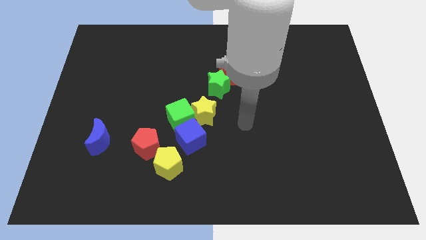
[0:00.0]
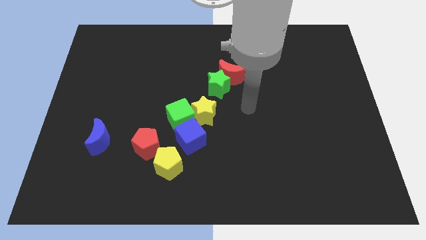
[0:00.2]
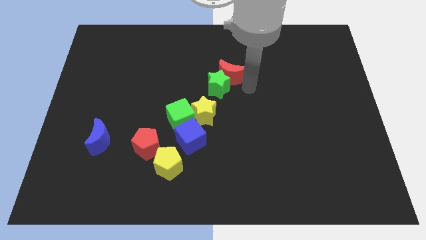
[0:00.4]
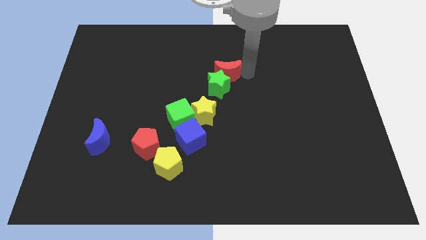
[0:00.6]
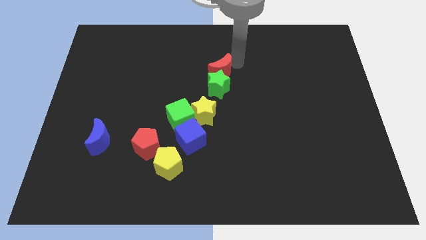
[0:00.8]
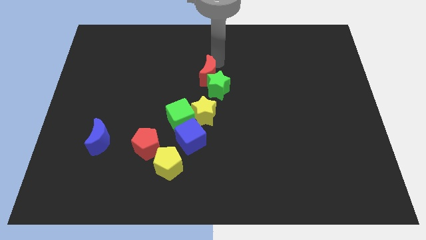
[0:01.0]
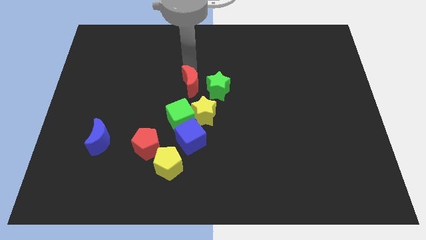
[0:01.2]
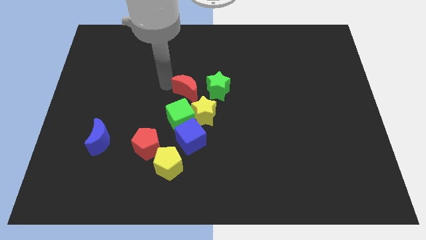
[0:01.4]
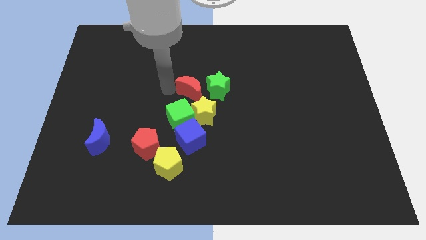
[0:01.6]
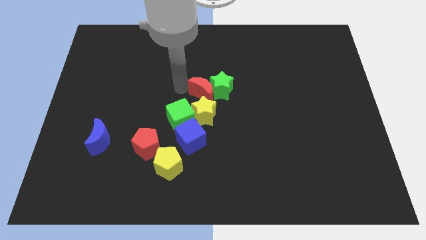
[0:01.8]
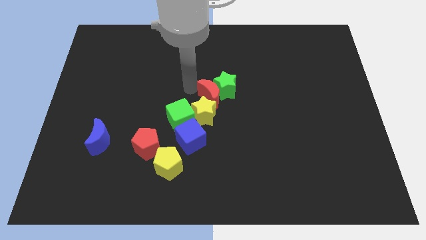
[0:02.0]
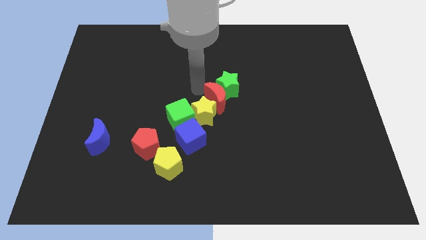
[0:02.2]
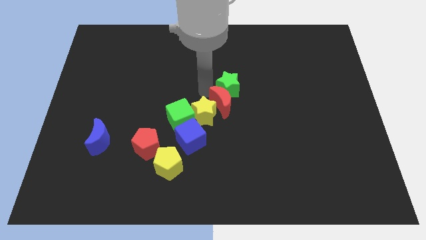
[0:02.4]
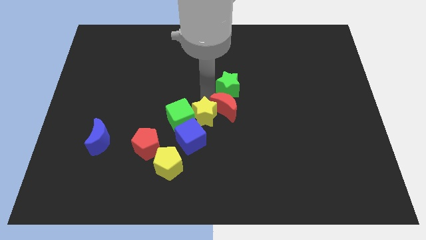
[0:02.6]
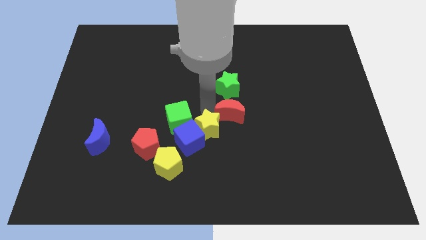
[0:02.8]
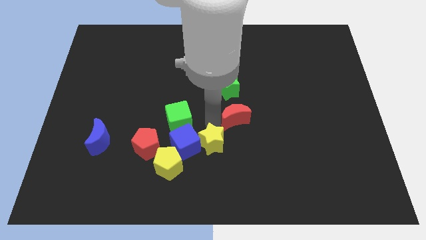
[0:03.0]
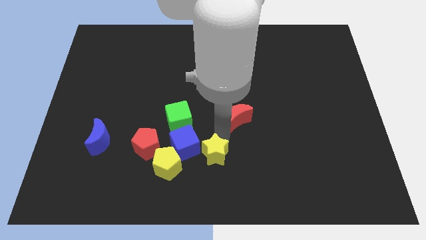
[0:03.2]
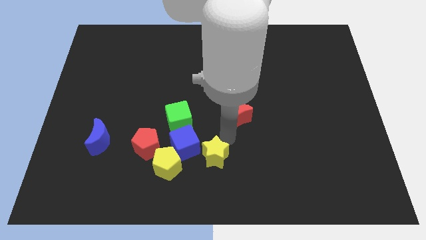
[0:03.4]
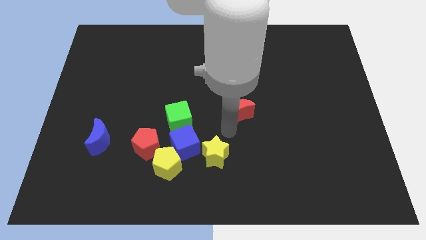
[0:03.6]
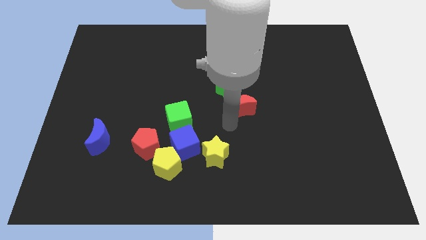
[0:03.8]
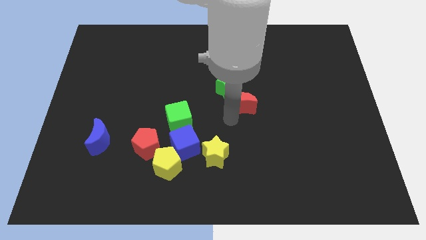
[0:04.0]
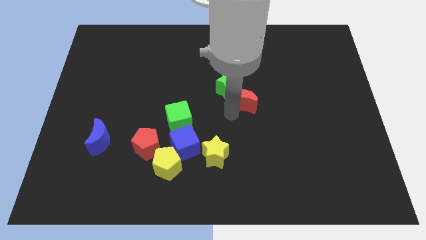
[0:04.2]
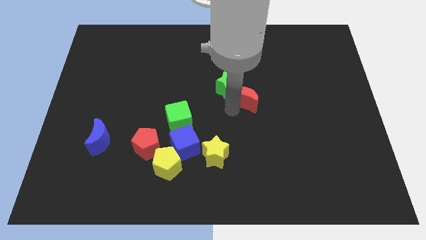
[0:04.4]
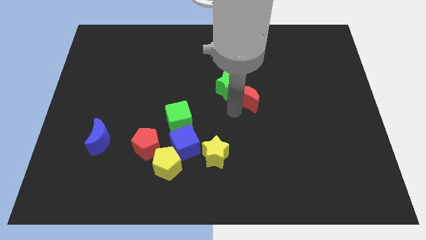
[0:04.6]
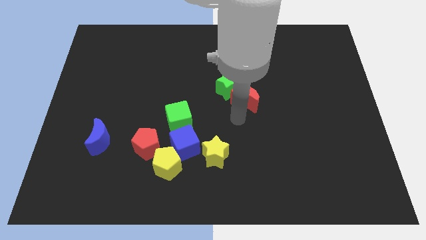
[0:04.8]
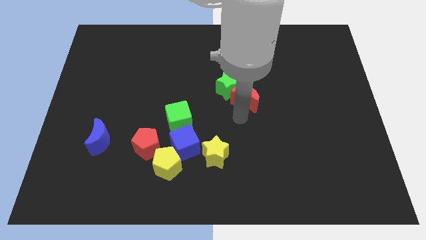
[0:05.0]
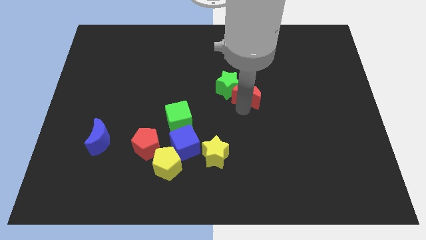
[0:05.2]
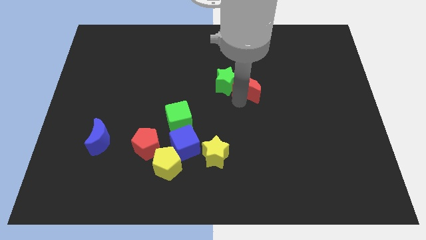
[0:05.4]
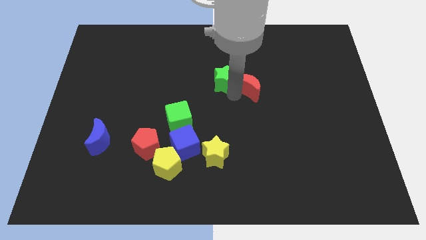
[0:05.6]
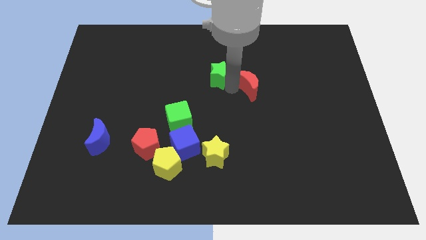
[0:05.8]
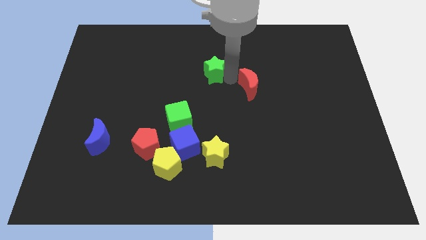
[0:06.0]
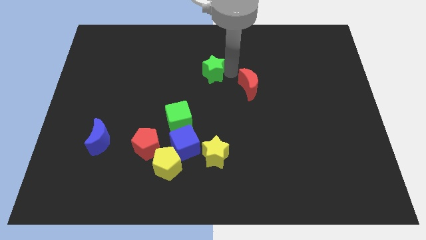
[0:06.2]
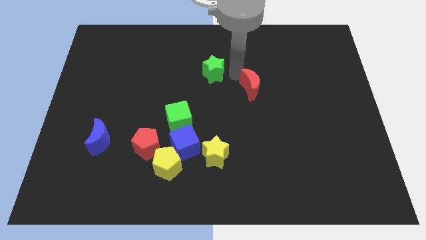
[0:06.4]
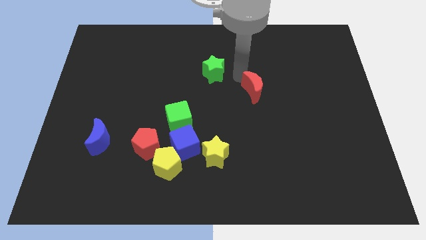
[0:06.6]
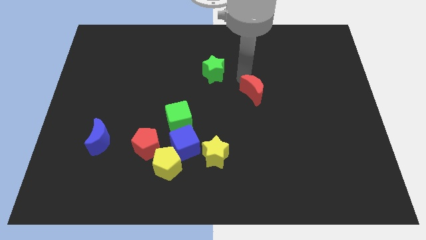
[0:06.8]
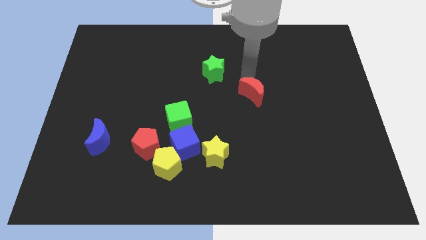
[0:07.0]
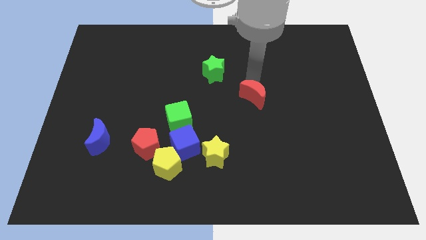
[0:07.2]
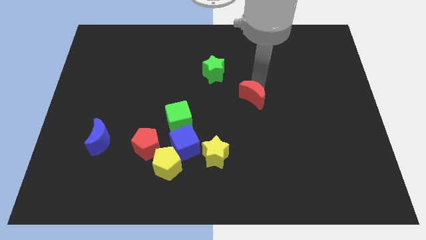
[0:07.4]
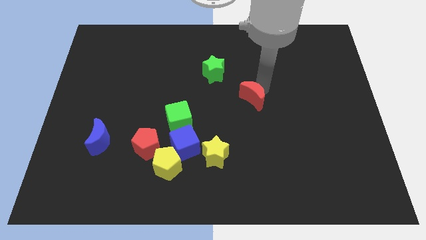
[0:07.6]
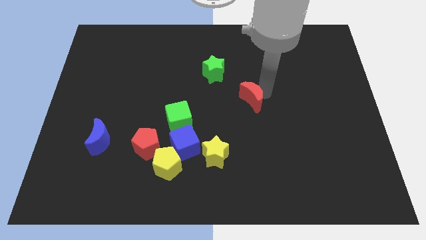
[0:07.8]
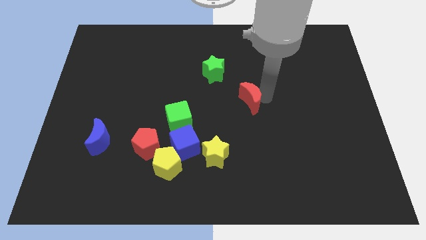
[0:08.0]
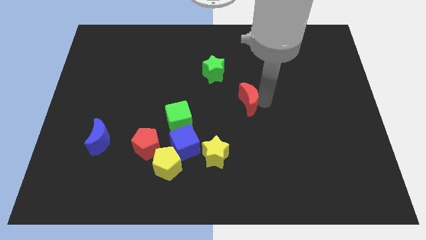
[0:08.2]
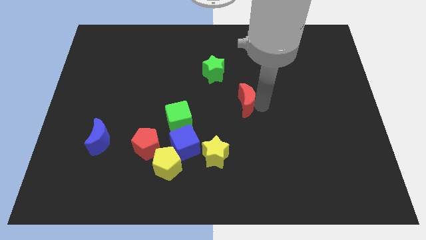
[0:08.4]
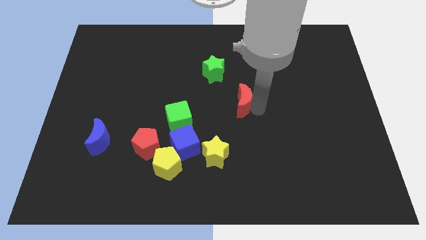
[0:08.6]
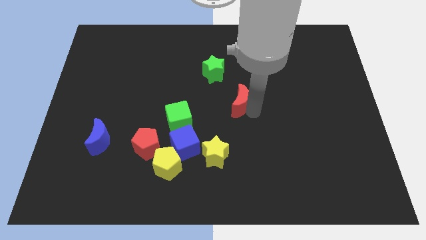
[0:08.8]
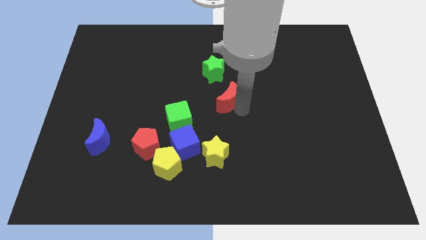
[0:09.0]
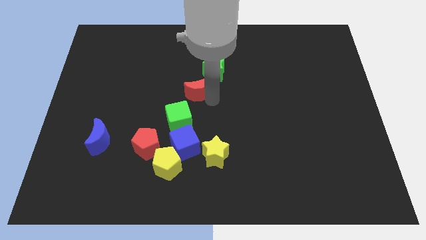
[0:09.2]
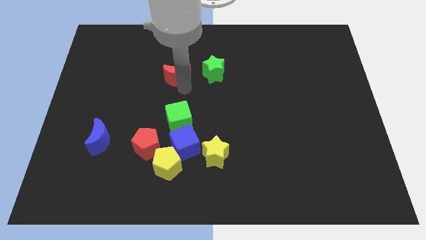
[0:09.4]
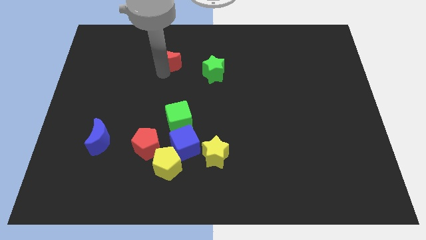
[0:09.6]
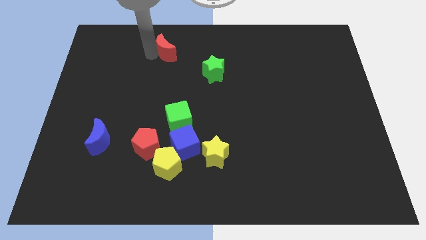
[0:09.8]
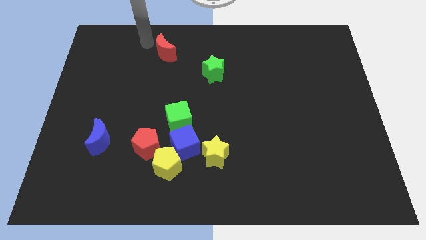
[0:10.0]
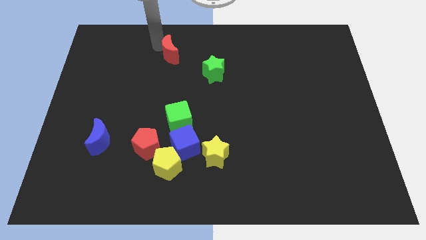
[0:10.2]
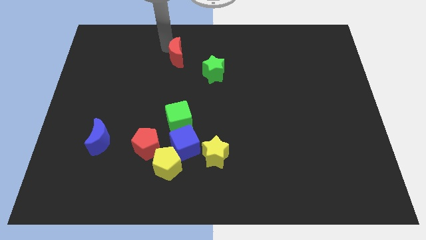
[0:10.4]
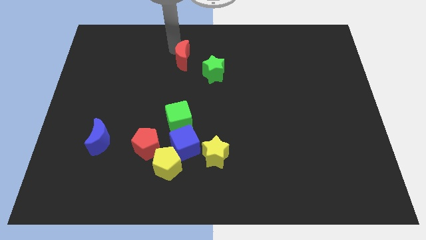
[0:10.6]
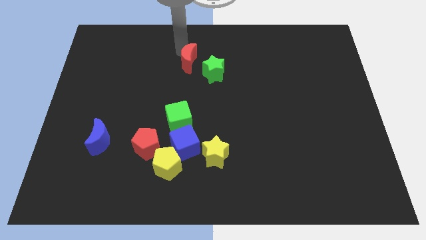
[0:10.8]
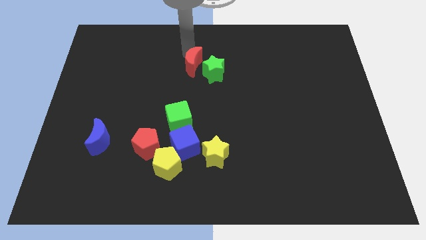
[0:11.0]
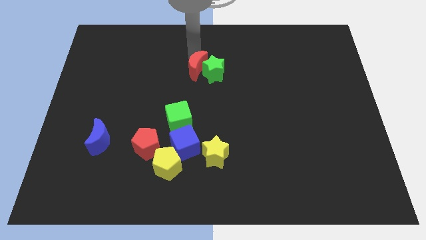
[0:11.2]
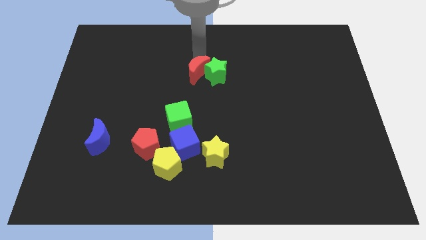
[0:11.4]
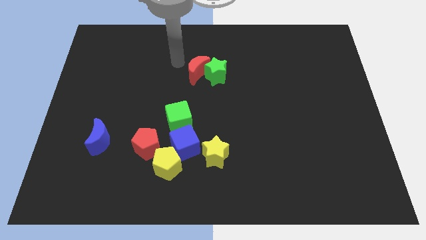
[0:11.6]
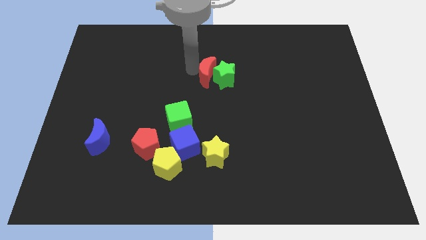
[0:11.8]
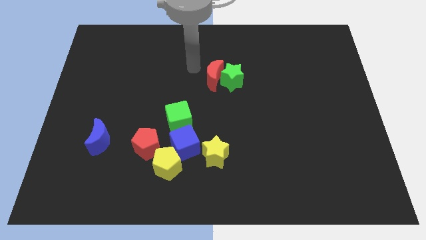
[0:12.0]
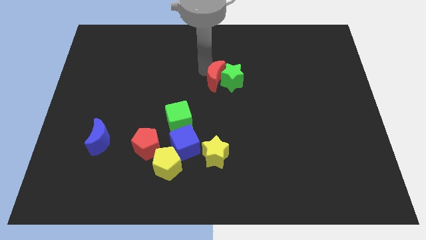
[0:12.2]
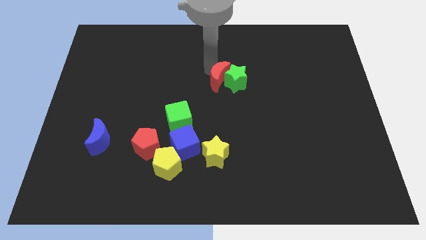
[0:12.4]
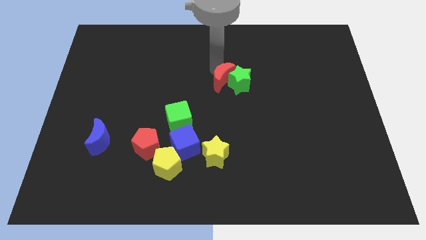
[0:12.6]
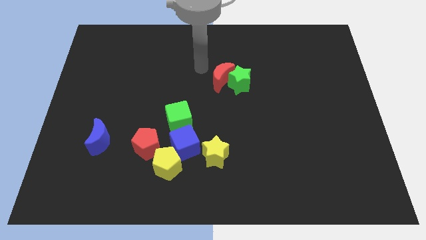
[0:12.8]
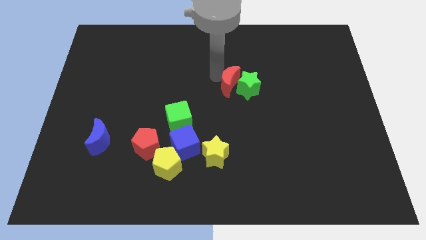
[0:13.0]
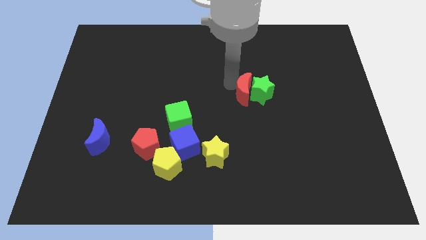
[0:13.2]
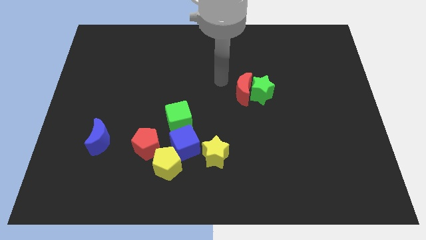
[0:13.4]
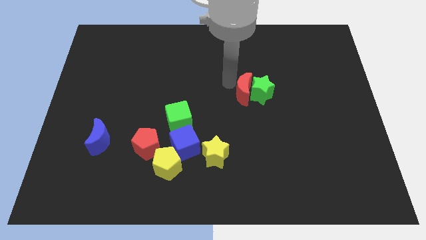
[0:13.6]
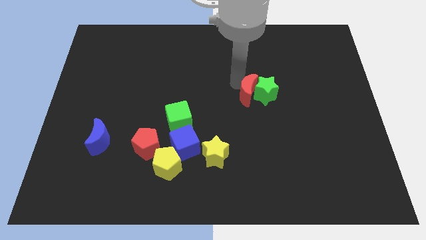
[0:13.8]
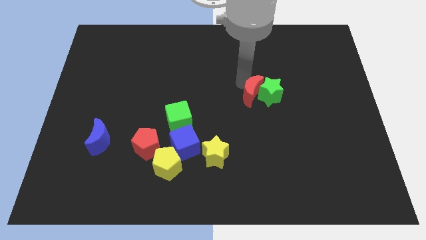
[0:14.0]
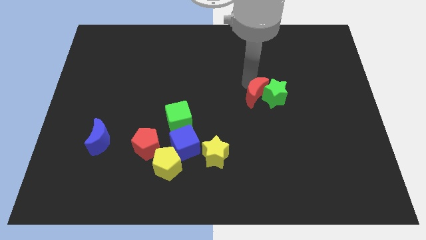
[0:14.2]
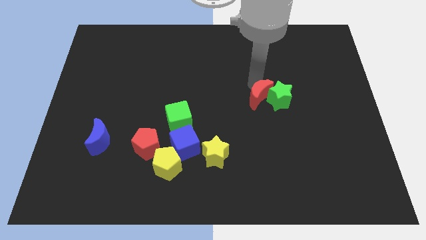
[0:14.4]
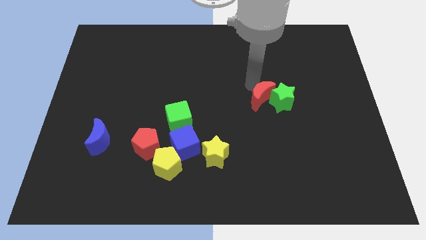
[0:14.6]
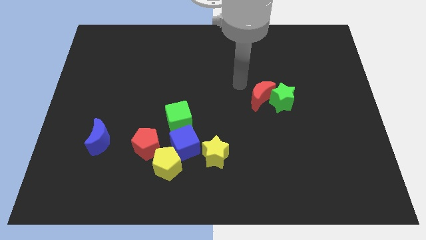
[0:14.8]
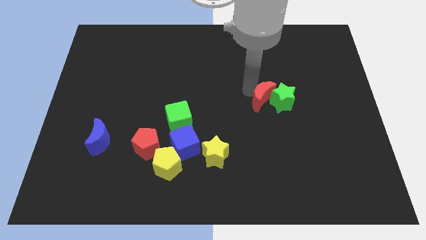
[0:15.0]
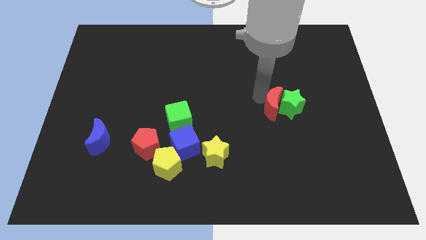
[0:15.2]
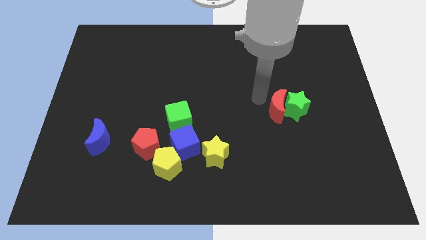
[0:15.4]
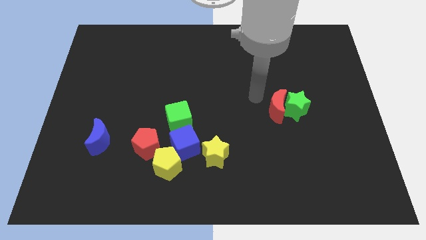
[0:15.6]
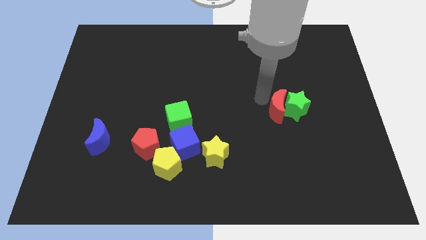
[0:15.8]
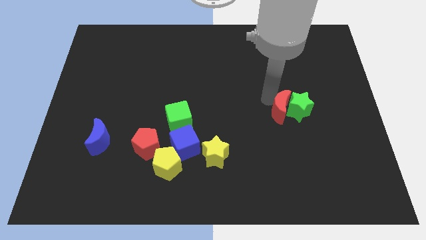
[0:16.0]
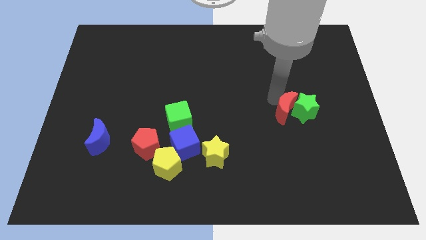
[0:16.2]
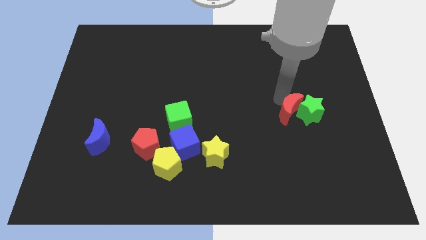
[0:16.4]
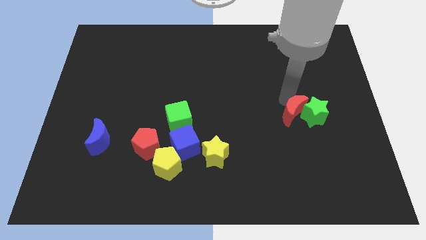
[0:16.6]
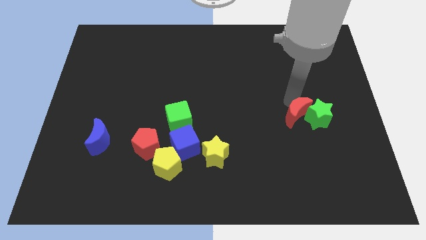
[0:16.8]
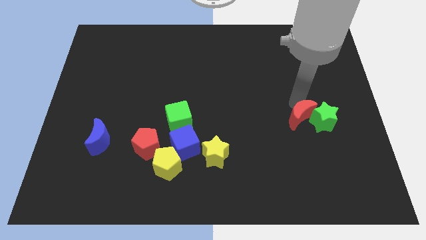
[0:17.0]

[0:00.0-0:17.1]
move the red moon down and then to the right
